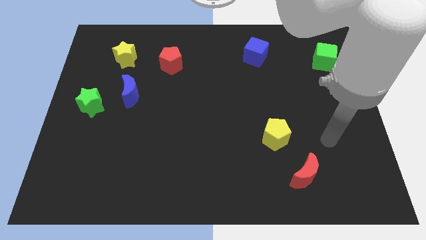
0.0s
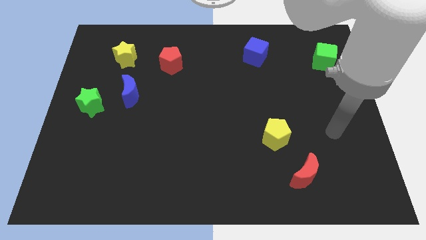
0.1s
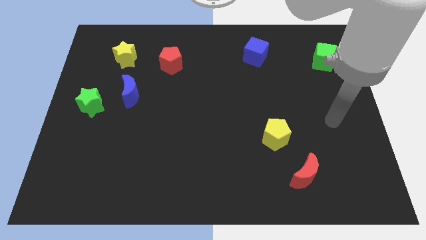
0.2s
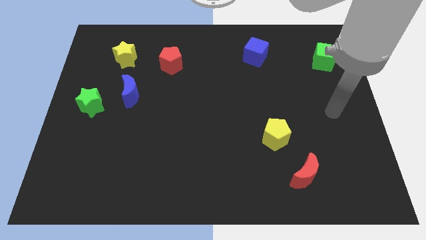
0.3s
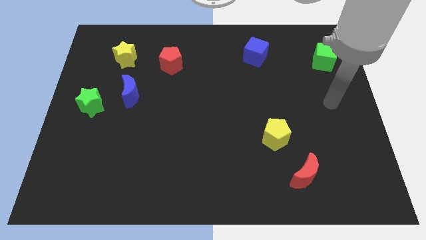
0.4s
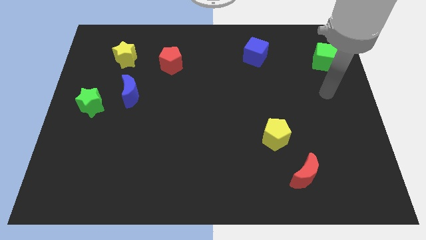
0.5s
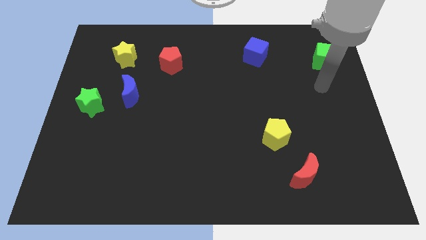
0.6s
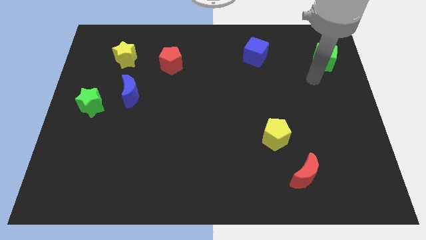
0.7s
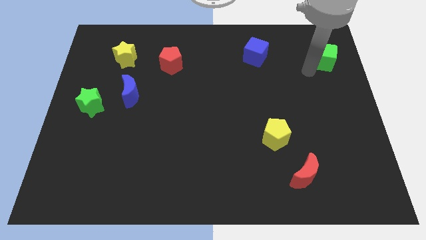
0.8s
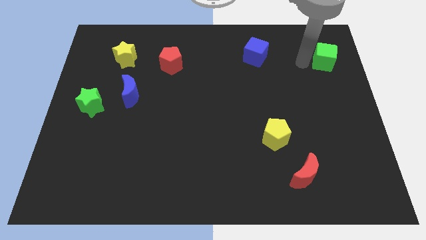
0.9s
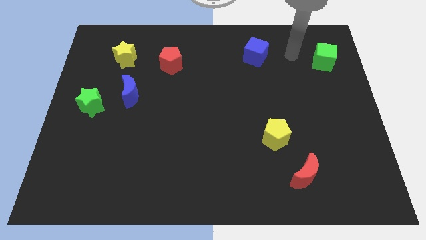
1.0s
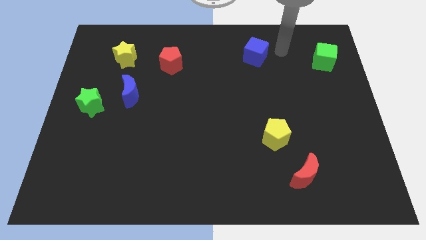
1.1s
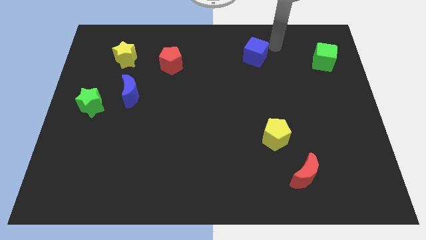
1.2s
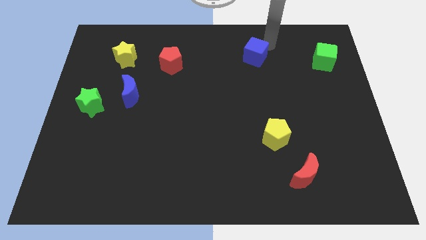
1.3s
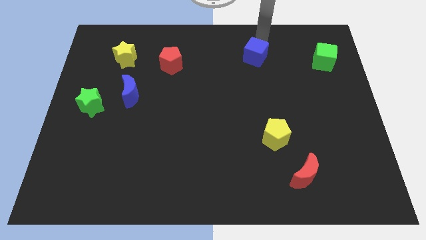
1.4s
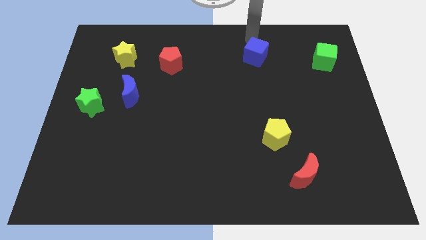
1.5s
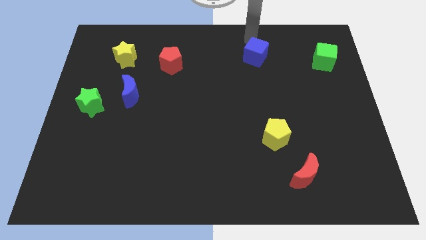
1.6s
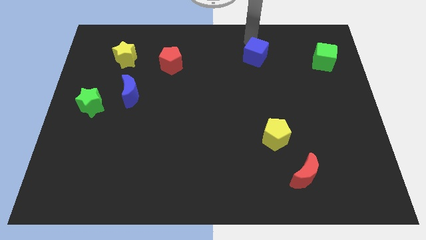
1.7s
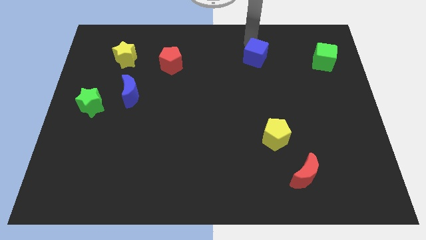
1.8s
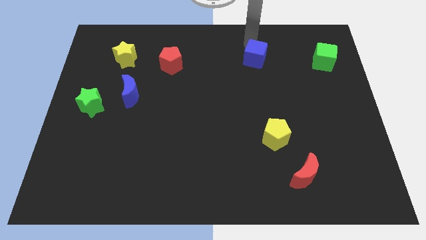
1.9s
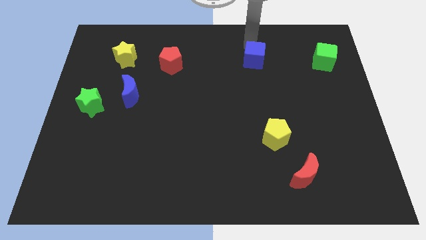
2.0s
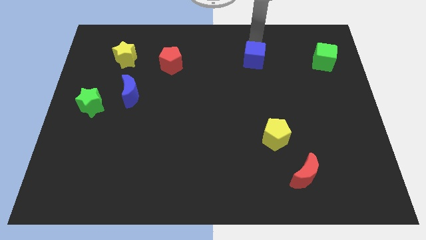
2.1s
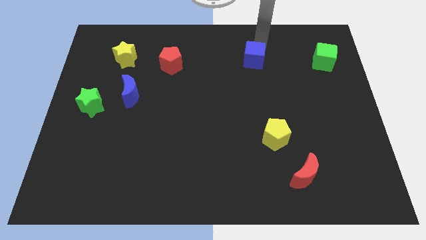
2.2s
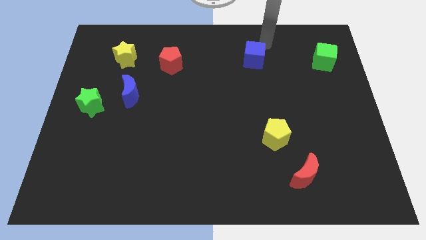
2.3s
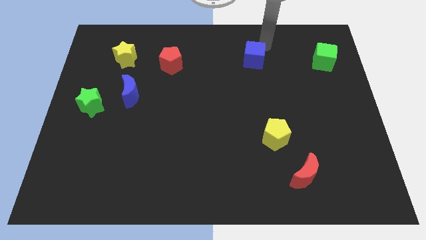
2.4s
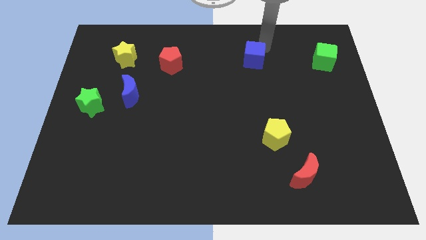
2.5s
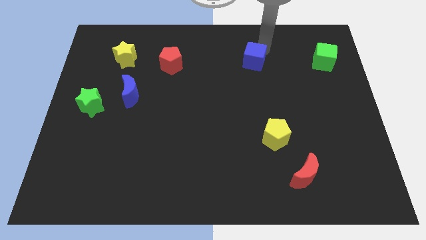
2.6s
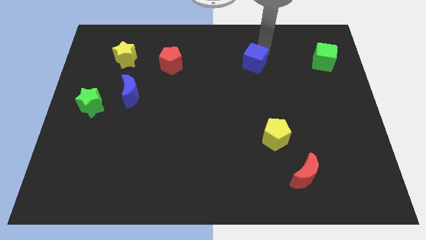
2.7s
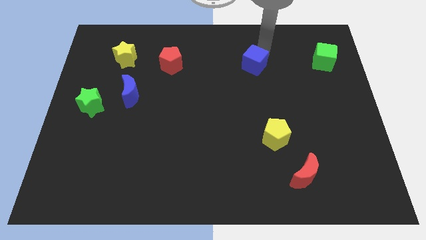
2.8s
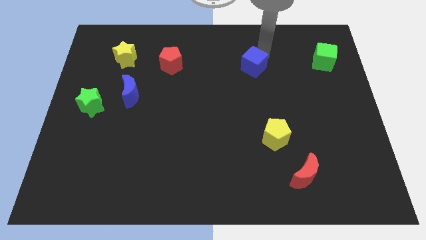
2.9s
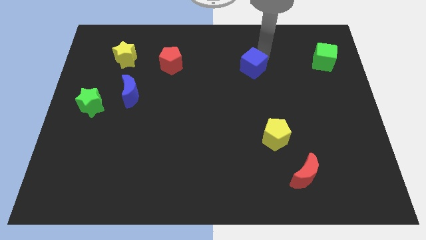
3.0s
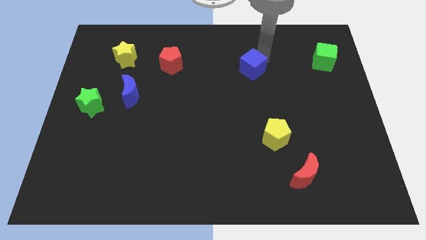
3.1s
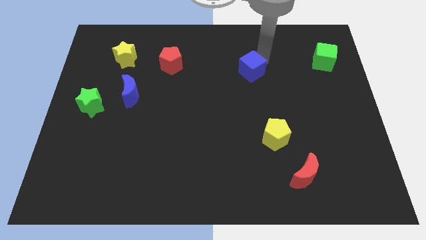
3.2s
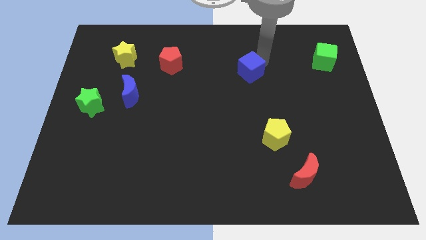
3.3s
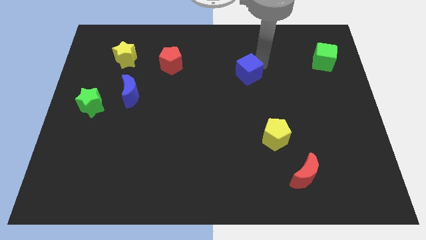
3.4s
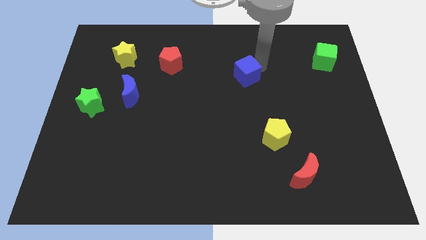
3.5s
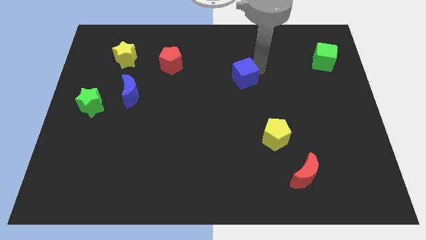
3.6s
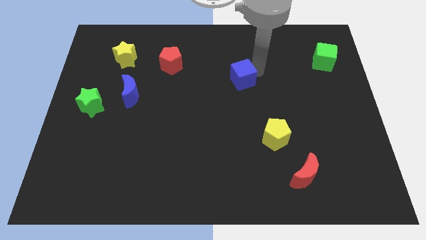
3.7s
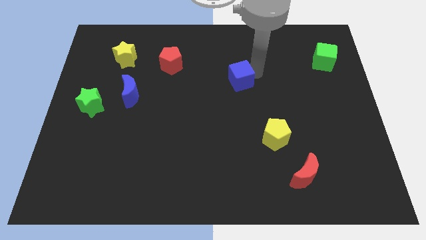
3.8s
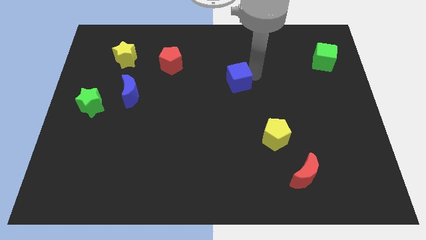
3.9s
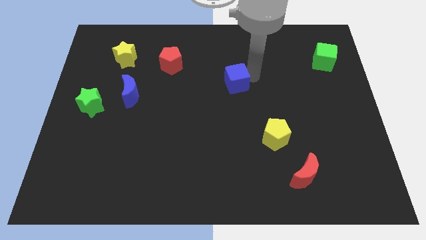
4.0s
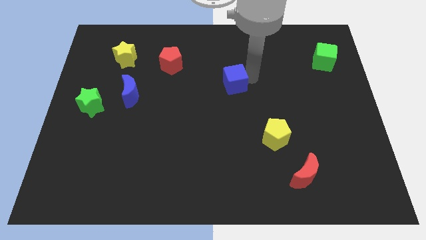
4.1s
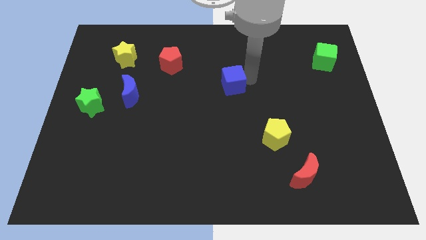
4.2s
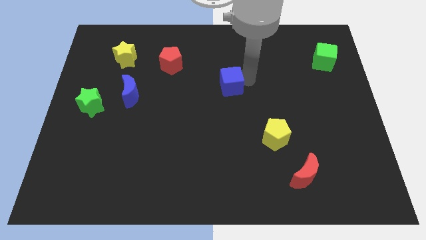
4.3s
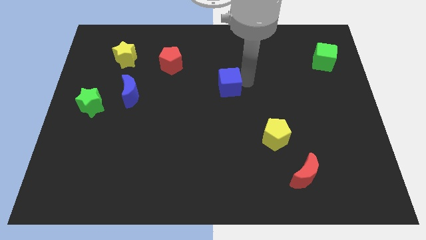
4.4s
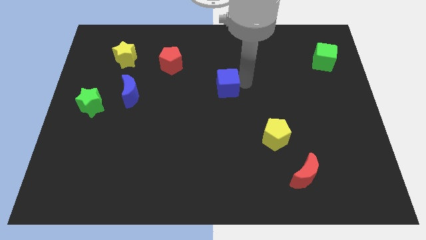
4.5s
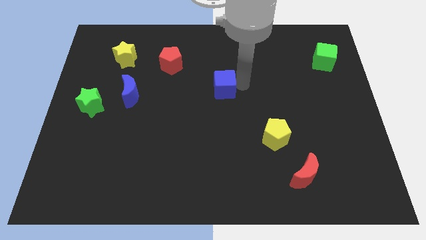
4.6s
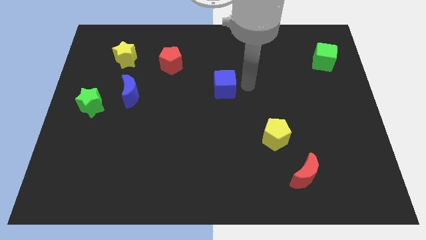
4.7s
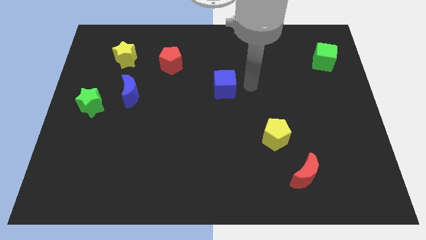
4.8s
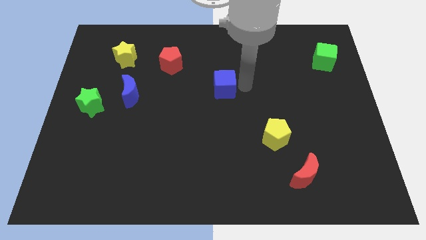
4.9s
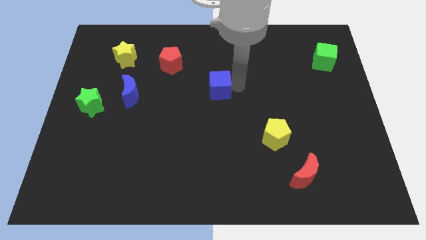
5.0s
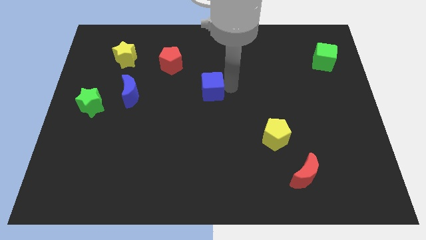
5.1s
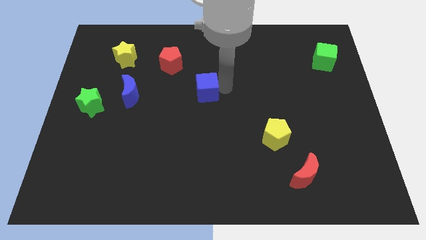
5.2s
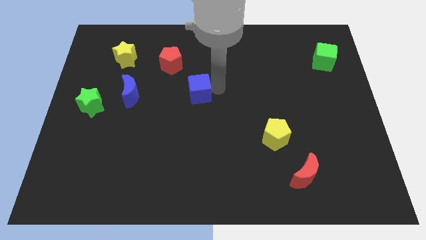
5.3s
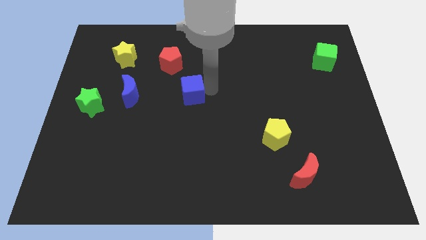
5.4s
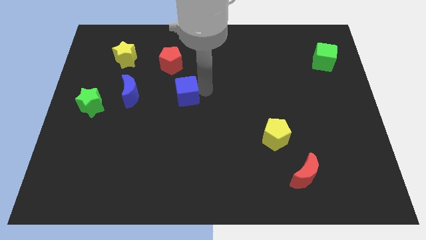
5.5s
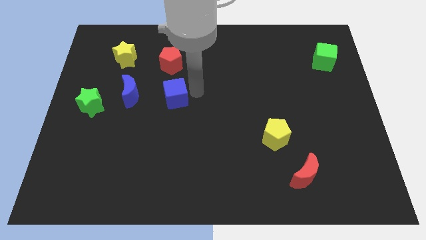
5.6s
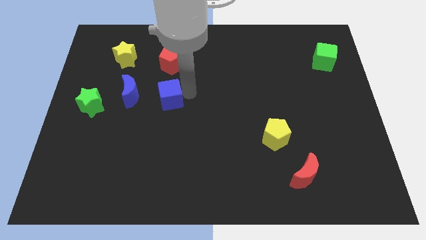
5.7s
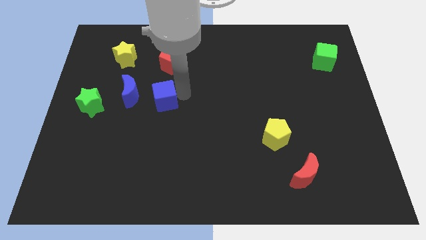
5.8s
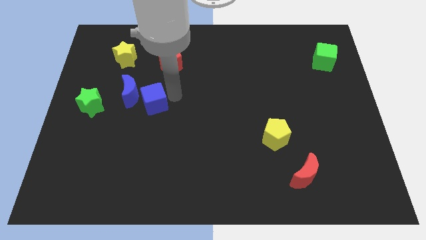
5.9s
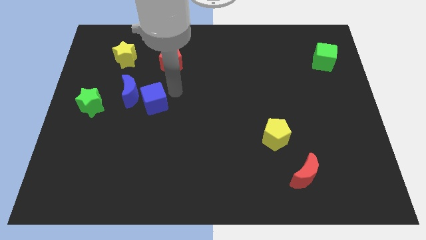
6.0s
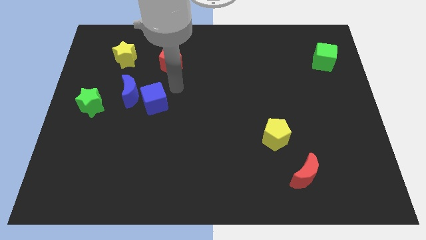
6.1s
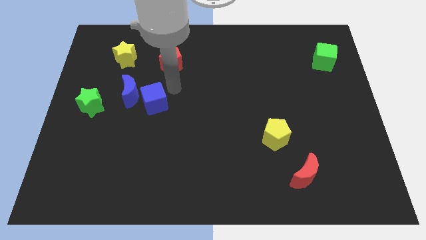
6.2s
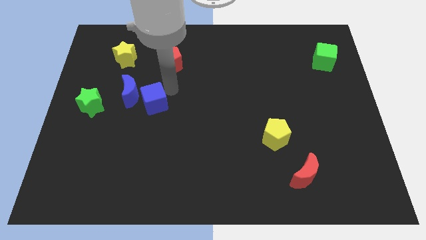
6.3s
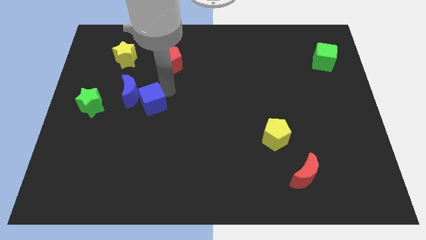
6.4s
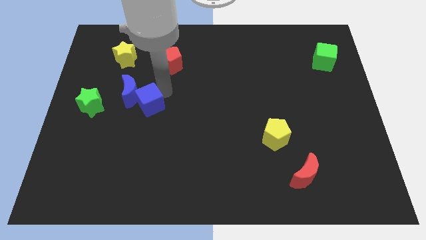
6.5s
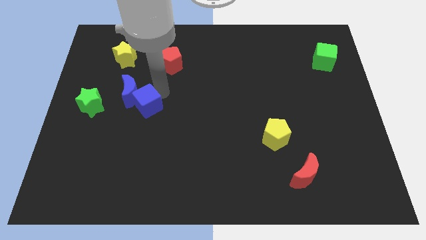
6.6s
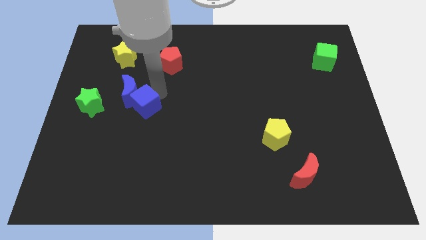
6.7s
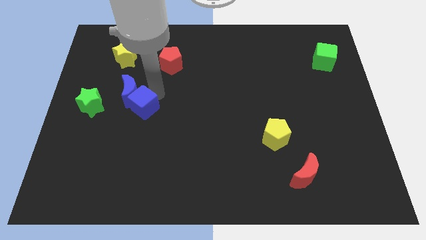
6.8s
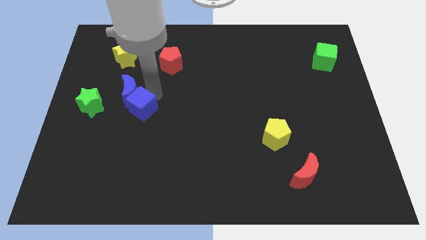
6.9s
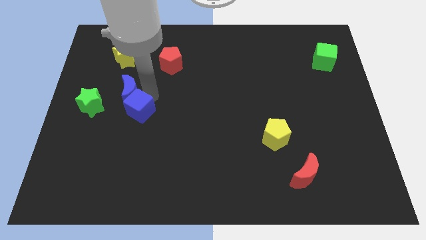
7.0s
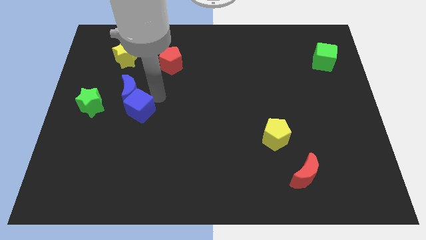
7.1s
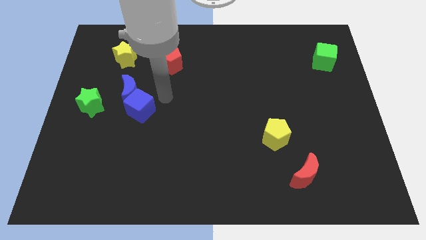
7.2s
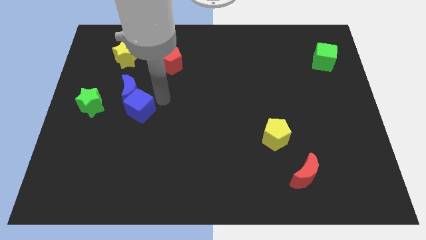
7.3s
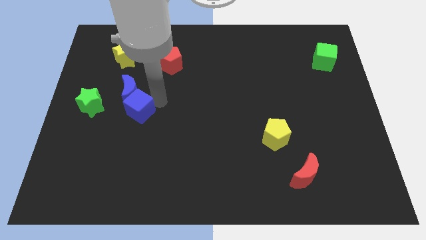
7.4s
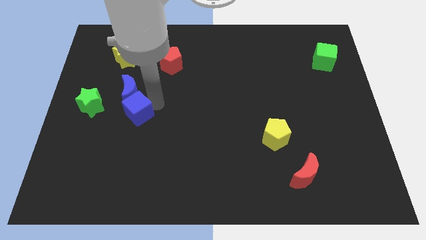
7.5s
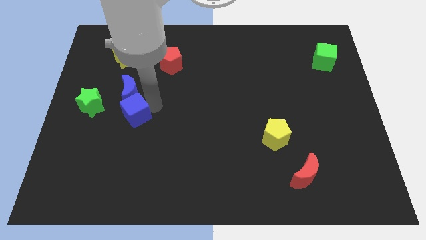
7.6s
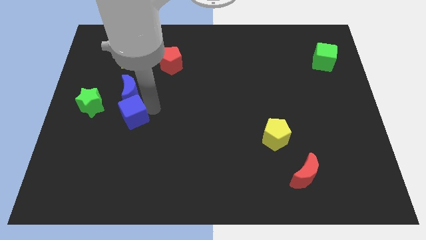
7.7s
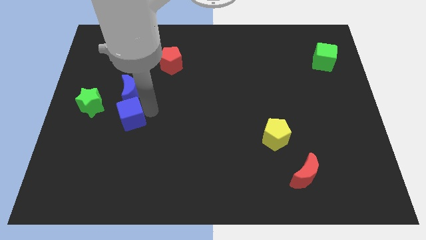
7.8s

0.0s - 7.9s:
move the blue cube to the bottom right side of the green star
